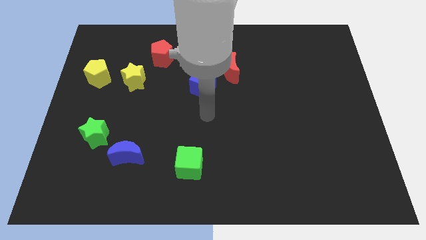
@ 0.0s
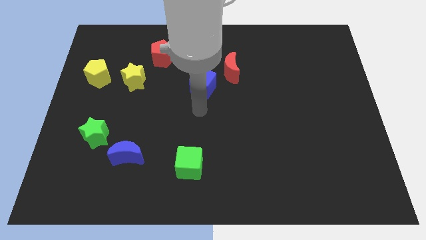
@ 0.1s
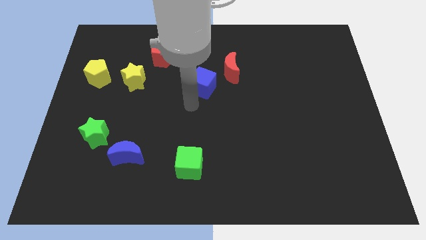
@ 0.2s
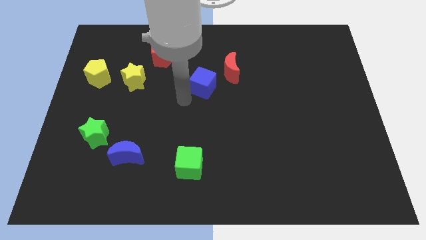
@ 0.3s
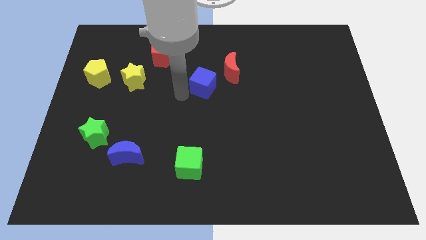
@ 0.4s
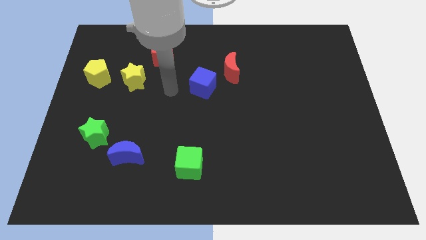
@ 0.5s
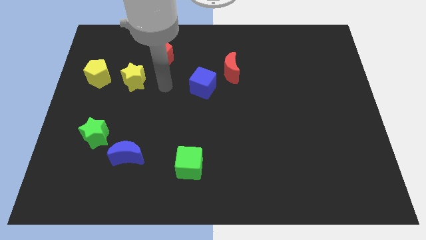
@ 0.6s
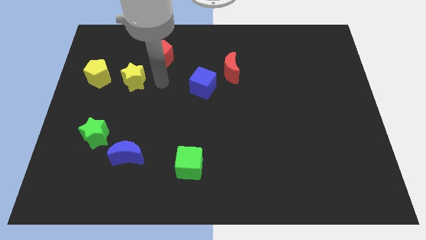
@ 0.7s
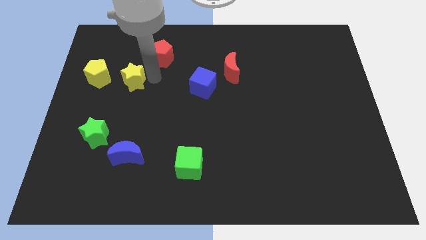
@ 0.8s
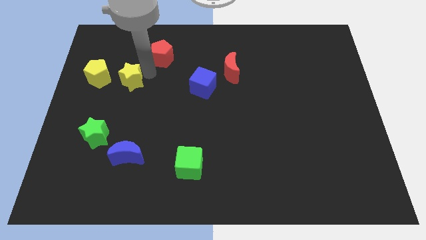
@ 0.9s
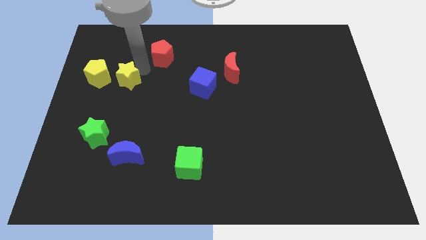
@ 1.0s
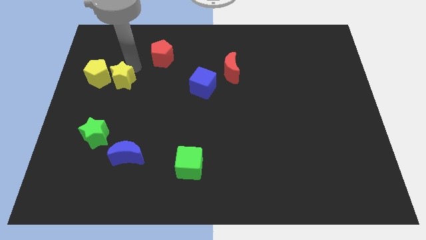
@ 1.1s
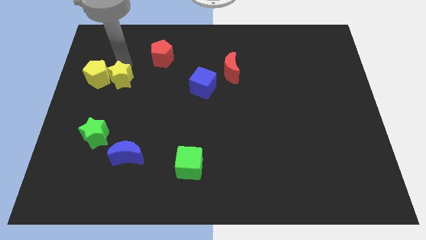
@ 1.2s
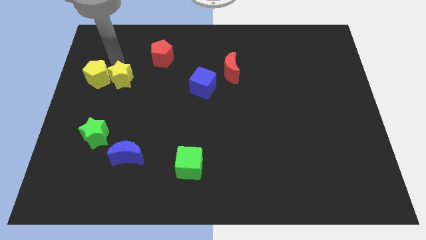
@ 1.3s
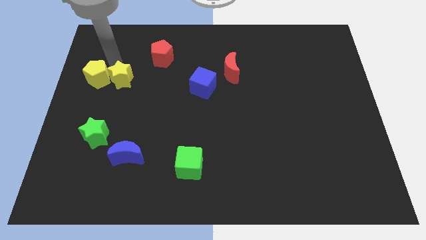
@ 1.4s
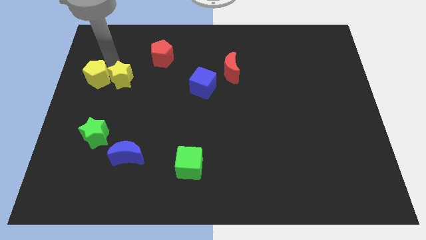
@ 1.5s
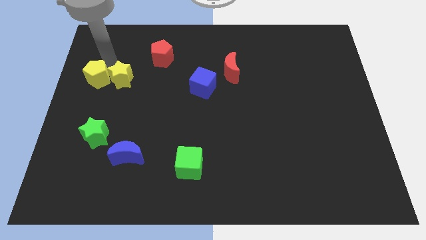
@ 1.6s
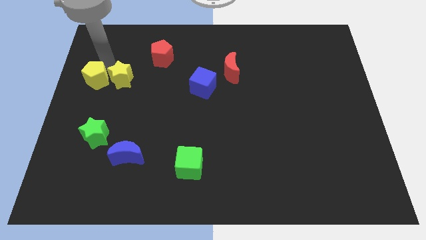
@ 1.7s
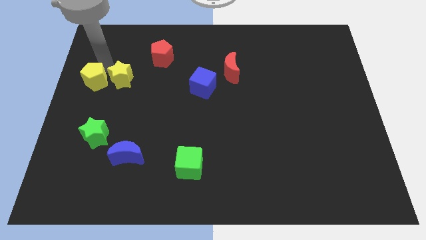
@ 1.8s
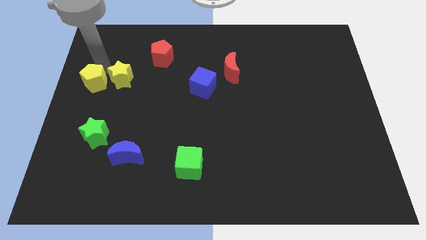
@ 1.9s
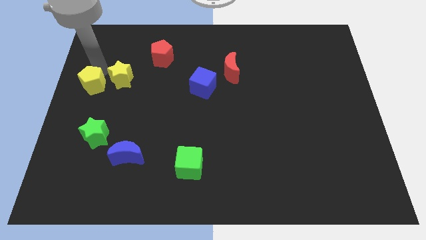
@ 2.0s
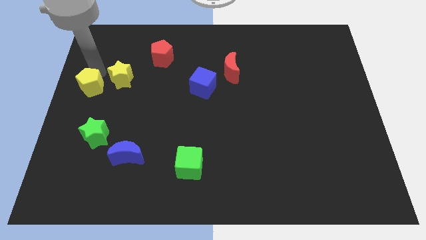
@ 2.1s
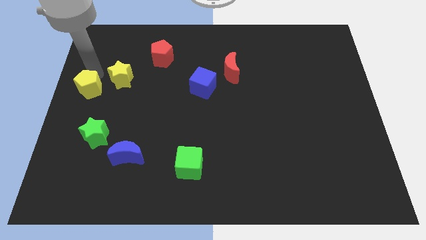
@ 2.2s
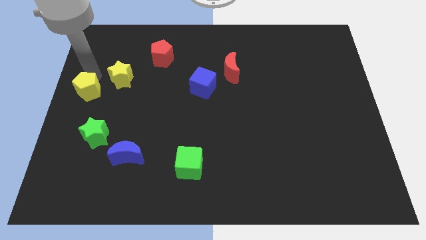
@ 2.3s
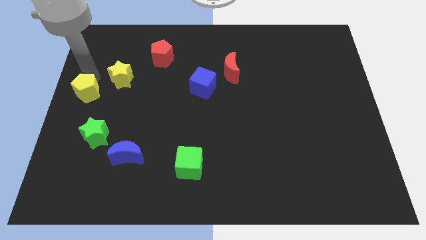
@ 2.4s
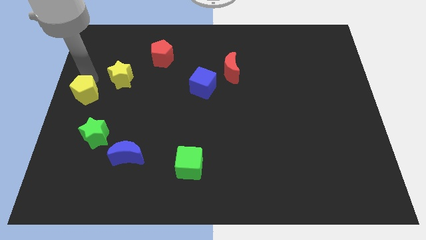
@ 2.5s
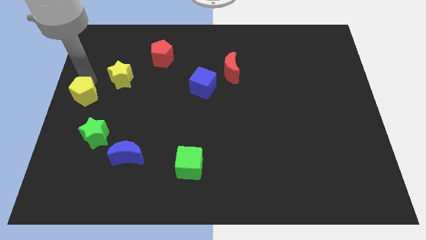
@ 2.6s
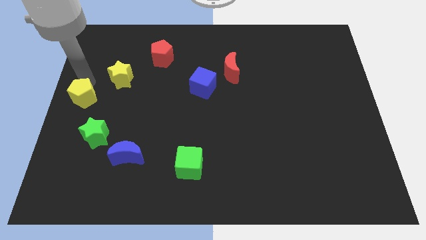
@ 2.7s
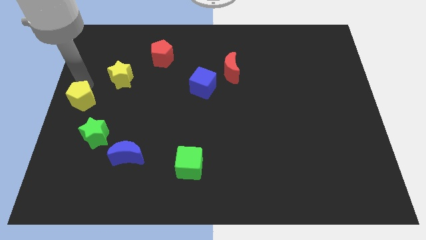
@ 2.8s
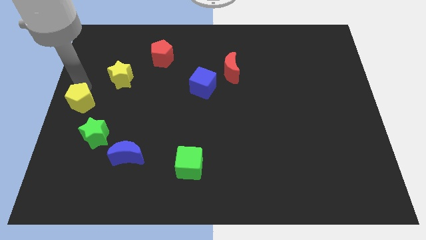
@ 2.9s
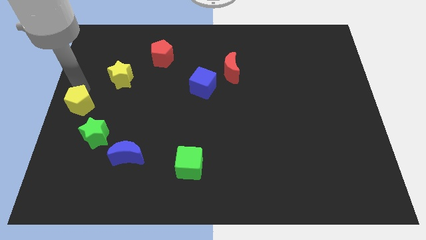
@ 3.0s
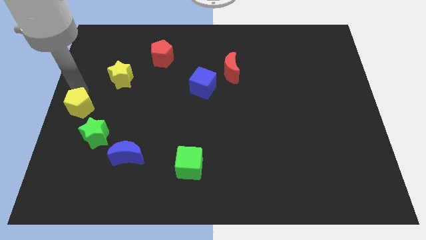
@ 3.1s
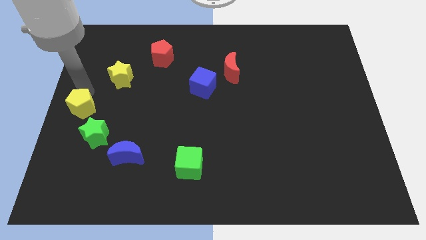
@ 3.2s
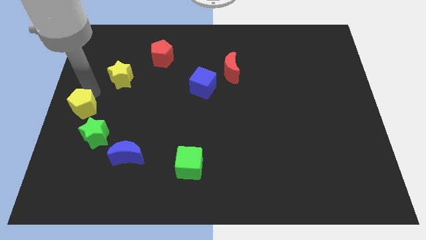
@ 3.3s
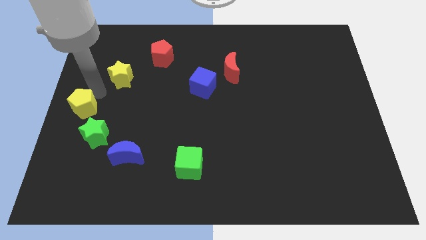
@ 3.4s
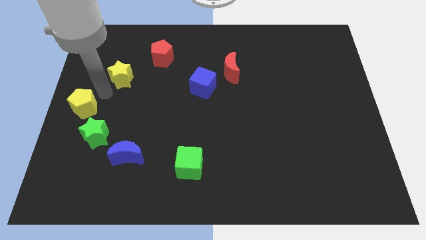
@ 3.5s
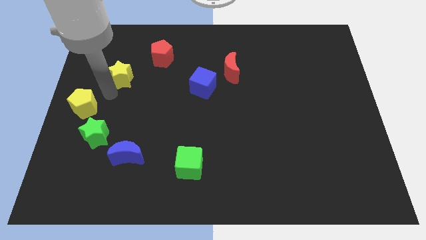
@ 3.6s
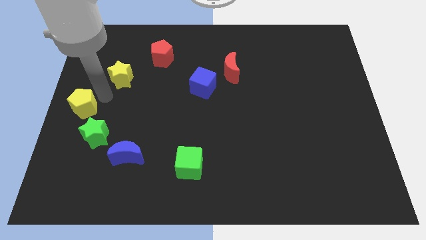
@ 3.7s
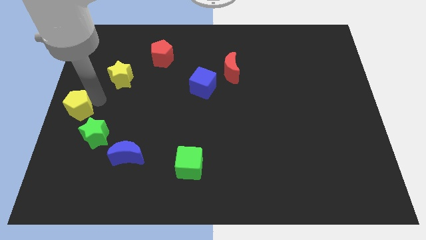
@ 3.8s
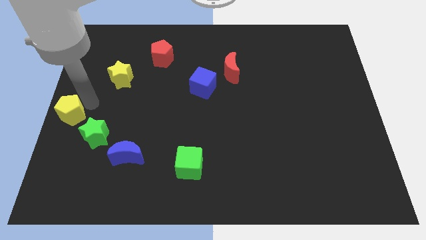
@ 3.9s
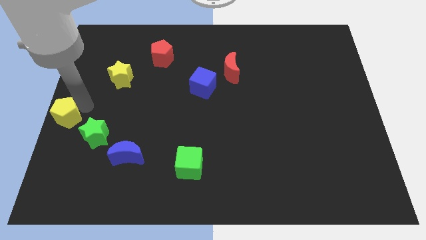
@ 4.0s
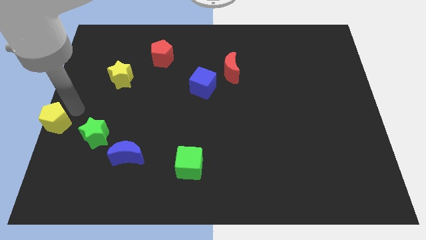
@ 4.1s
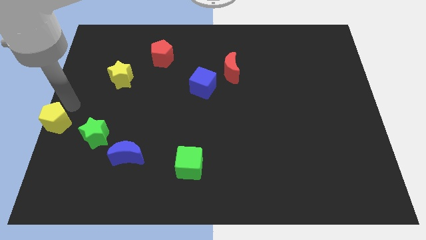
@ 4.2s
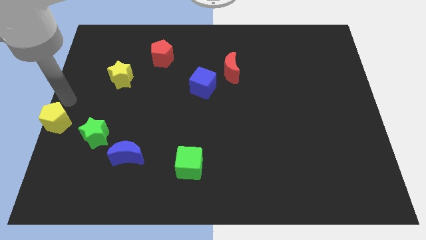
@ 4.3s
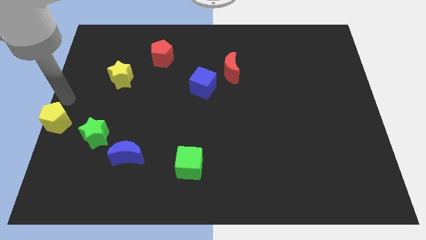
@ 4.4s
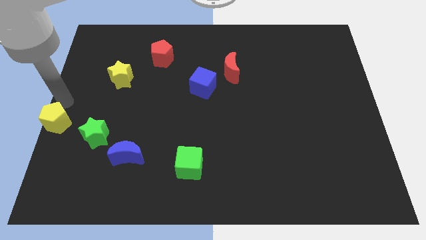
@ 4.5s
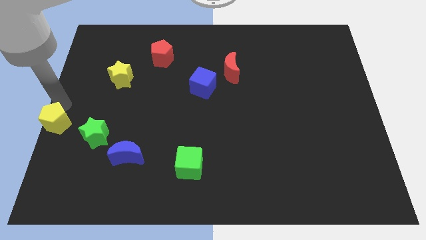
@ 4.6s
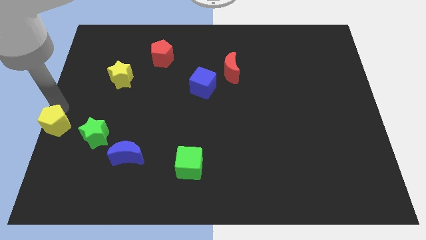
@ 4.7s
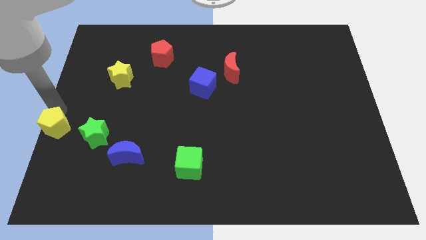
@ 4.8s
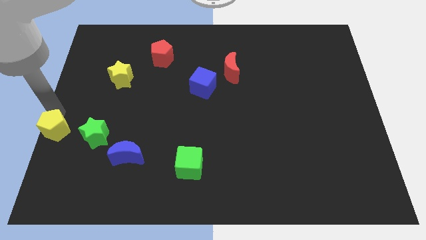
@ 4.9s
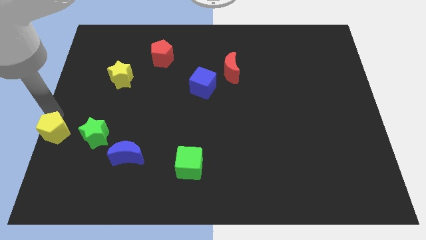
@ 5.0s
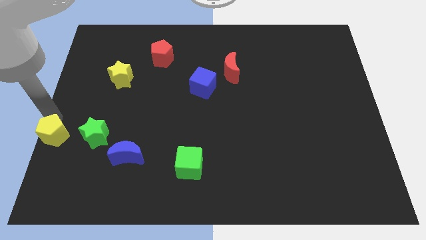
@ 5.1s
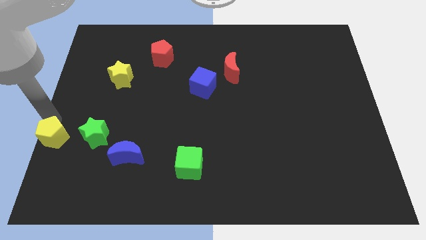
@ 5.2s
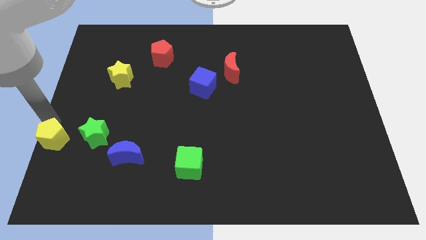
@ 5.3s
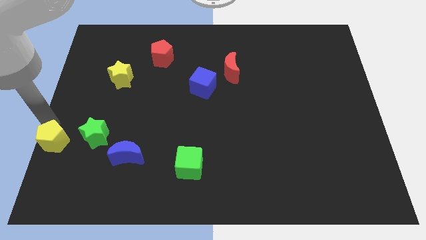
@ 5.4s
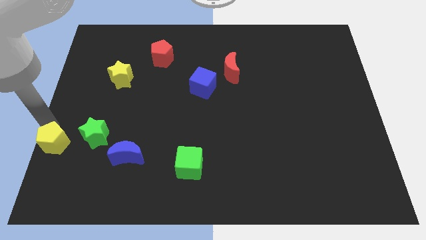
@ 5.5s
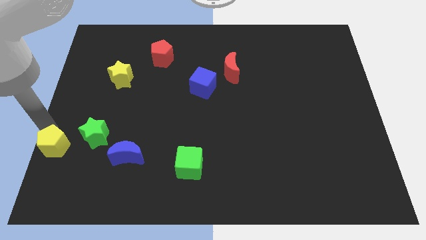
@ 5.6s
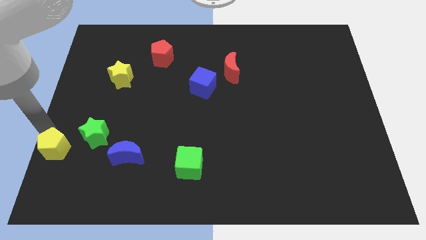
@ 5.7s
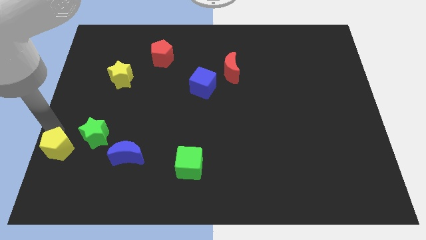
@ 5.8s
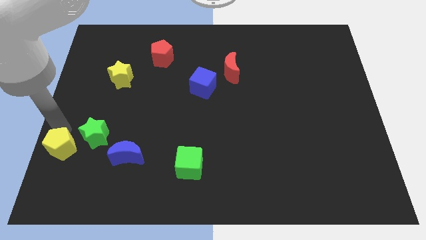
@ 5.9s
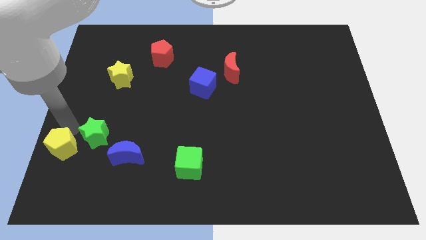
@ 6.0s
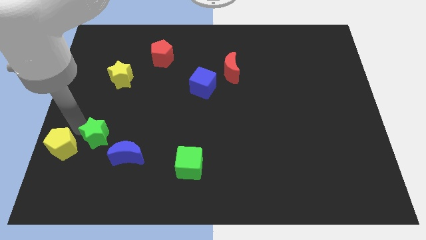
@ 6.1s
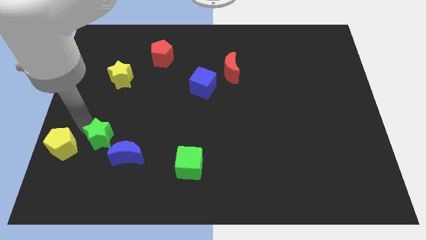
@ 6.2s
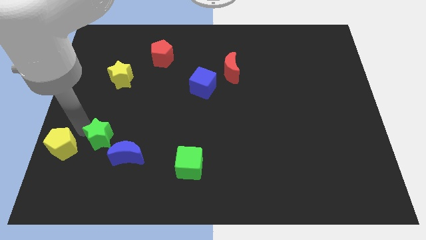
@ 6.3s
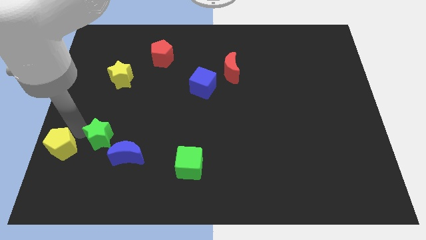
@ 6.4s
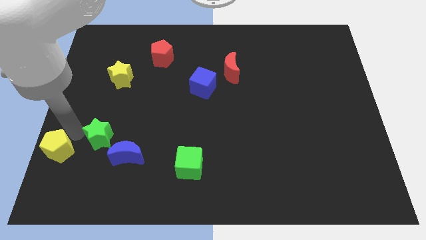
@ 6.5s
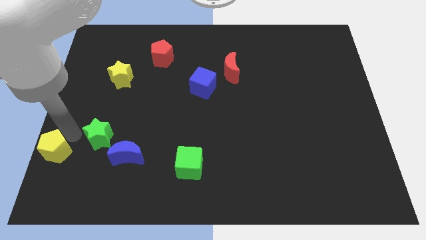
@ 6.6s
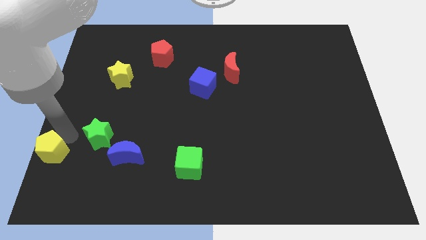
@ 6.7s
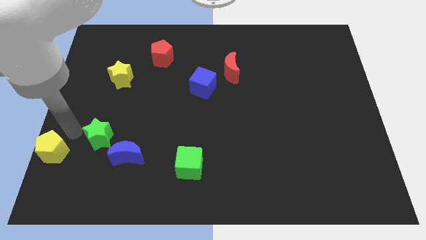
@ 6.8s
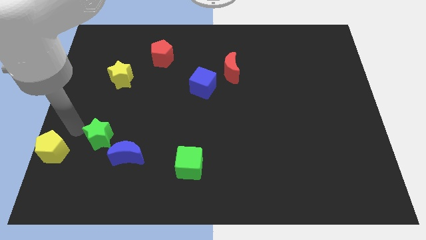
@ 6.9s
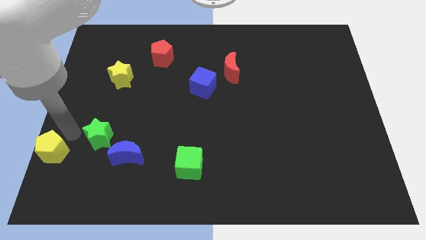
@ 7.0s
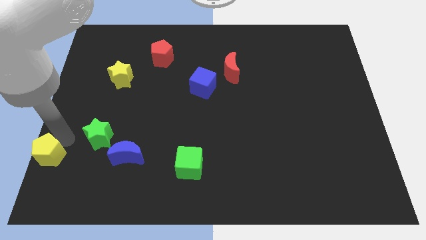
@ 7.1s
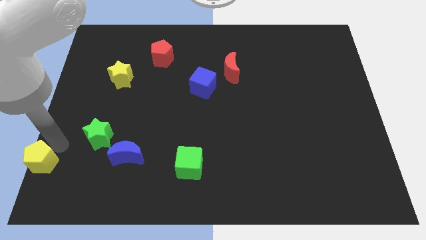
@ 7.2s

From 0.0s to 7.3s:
put the yellow pentagon to the bottom left of the board
